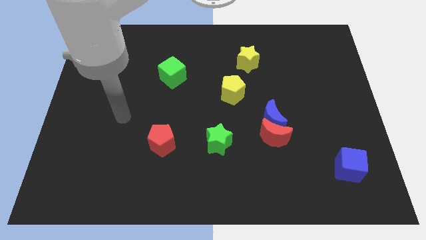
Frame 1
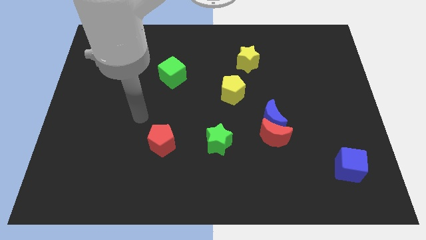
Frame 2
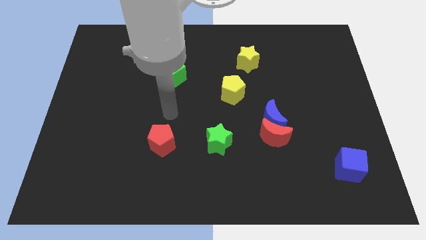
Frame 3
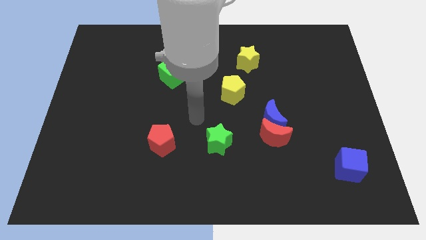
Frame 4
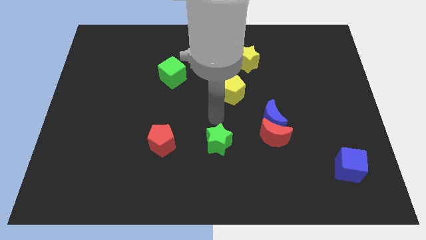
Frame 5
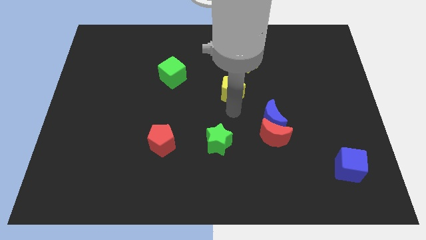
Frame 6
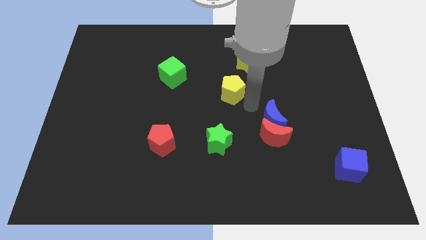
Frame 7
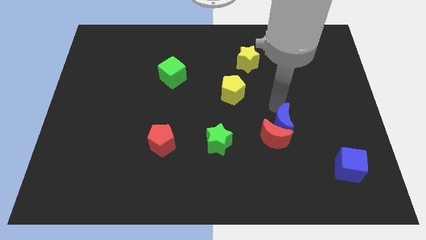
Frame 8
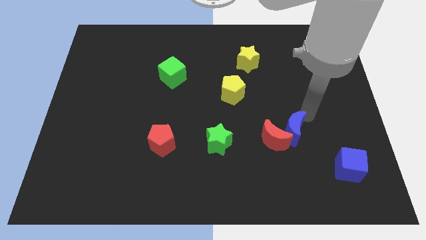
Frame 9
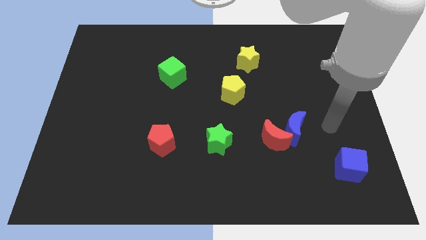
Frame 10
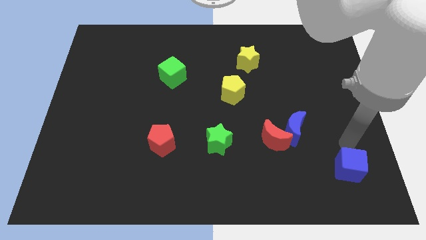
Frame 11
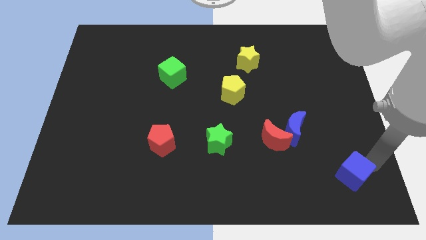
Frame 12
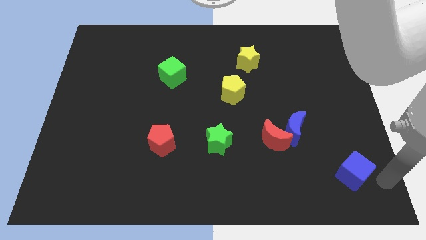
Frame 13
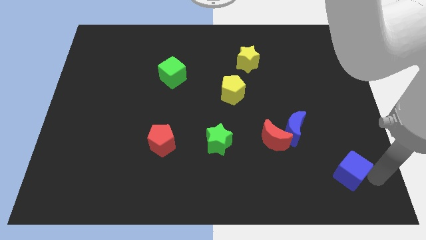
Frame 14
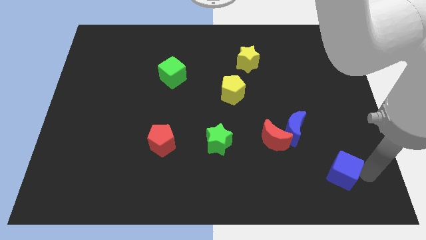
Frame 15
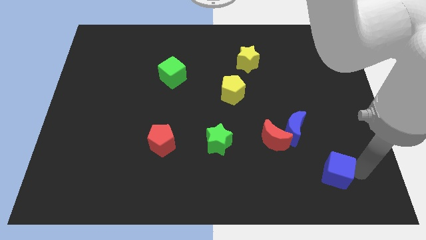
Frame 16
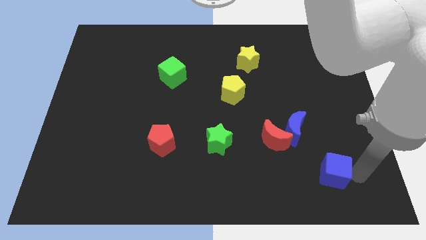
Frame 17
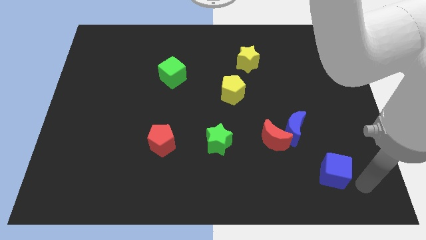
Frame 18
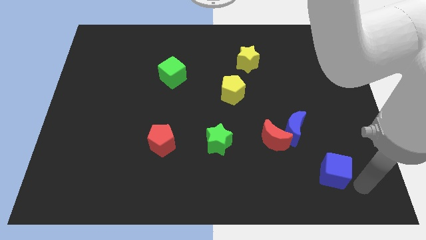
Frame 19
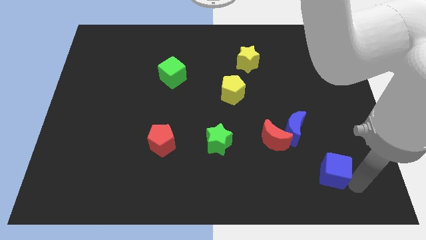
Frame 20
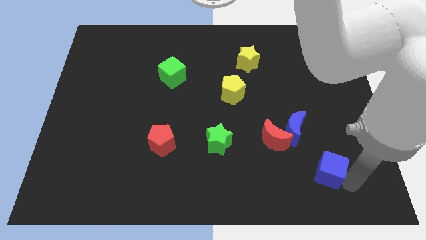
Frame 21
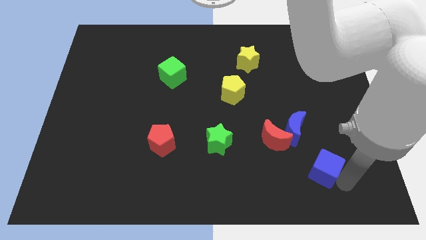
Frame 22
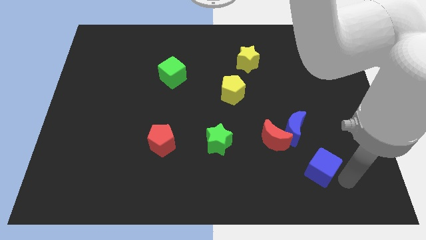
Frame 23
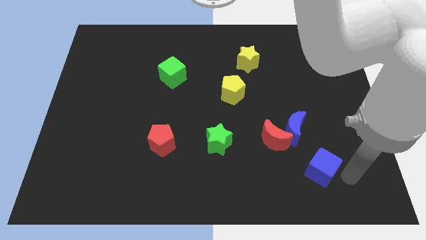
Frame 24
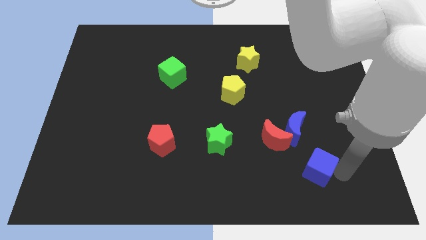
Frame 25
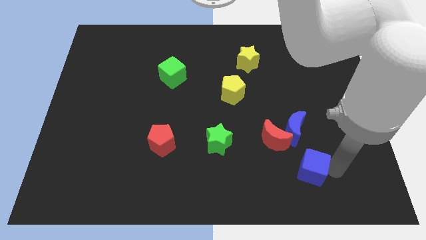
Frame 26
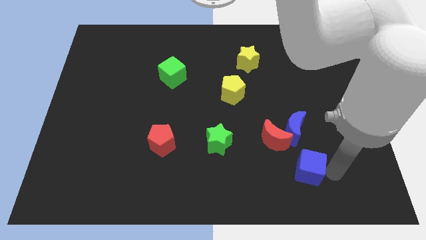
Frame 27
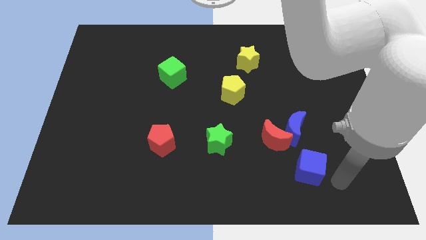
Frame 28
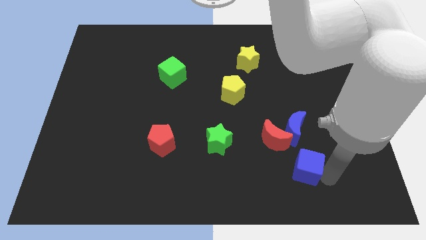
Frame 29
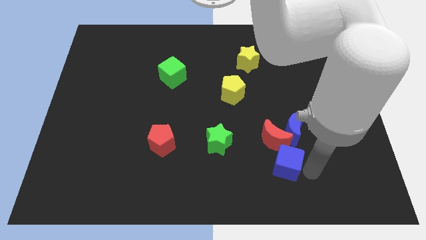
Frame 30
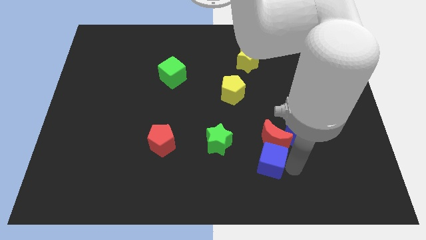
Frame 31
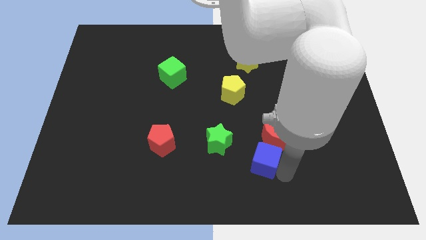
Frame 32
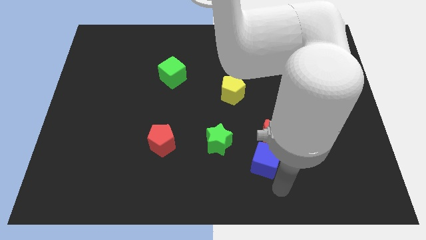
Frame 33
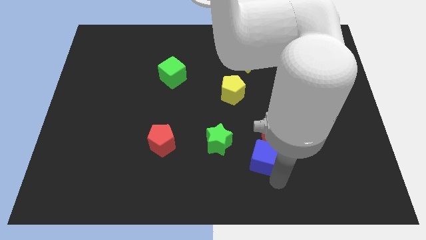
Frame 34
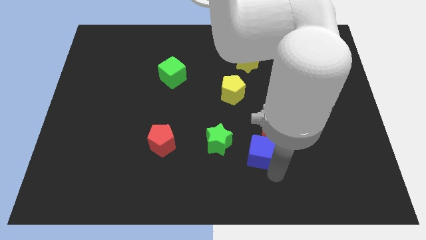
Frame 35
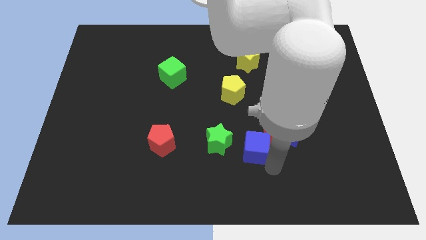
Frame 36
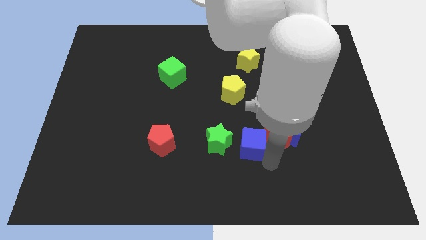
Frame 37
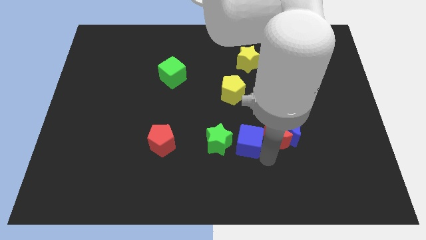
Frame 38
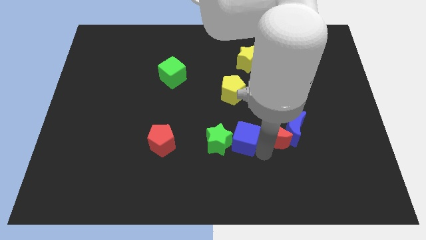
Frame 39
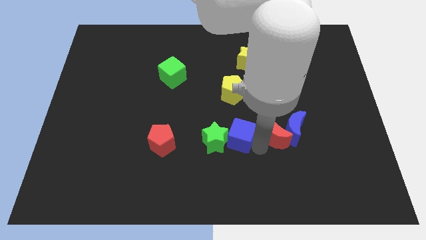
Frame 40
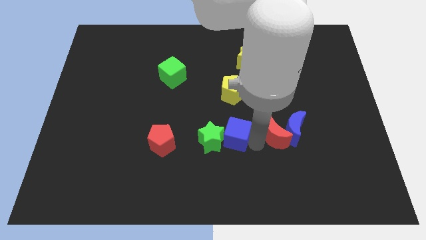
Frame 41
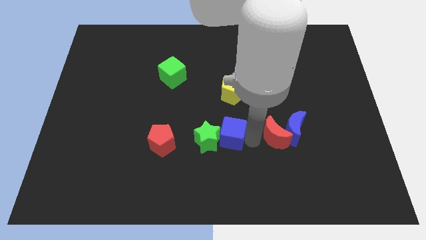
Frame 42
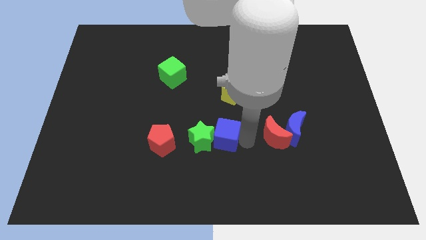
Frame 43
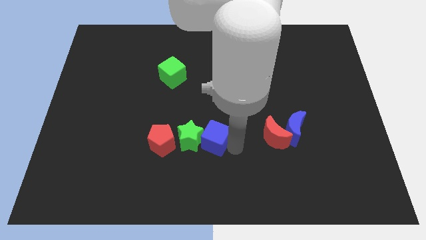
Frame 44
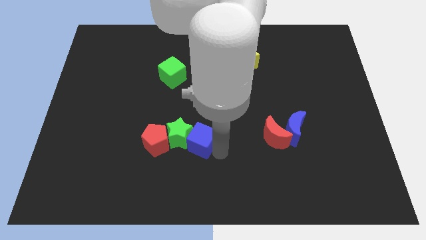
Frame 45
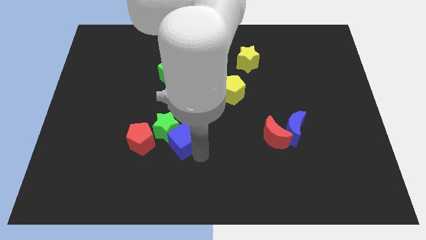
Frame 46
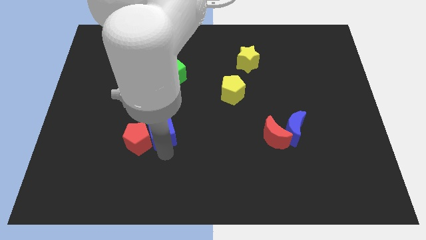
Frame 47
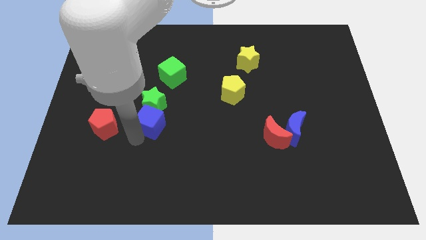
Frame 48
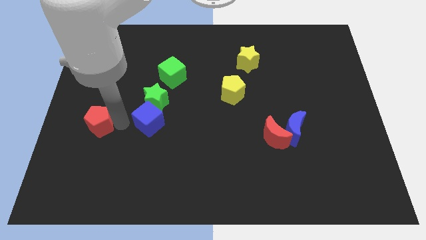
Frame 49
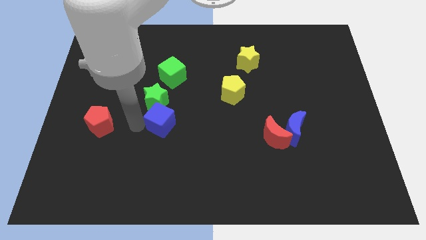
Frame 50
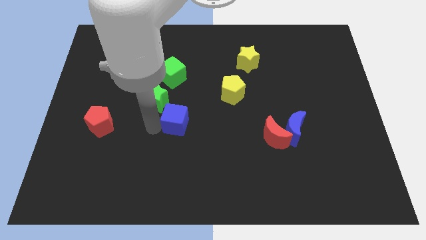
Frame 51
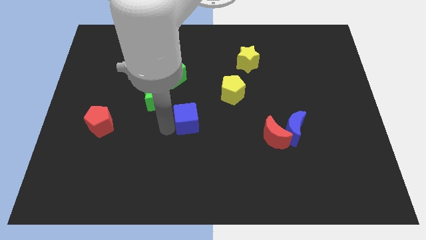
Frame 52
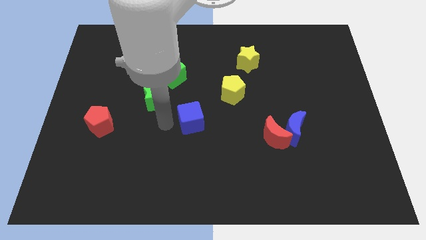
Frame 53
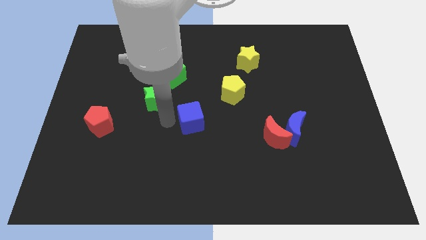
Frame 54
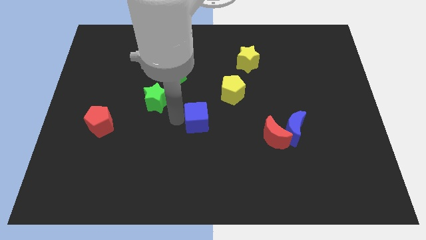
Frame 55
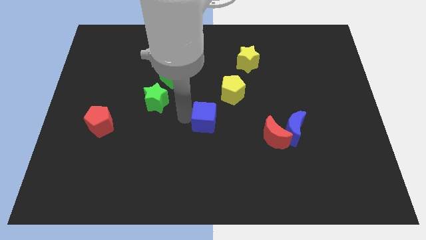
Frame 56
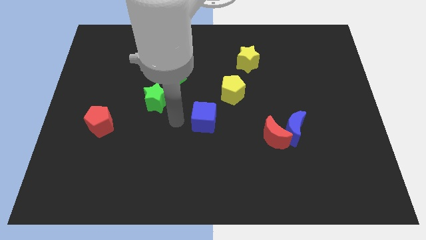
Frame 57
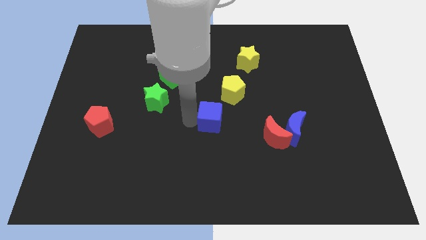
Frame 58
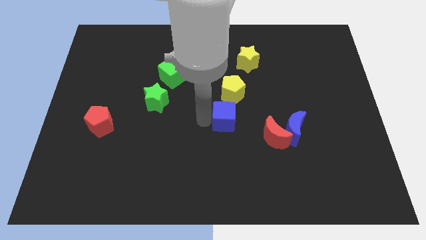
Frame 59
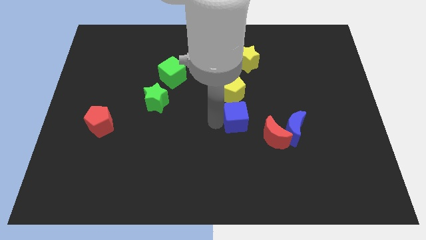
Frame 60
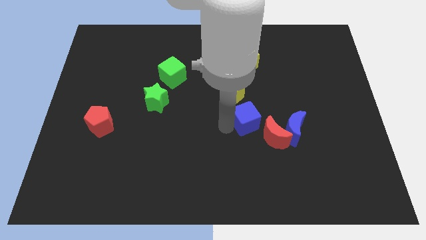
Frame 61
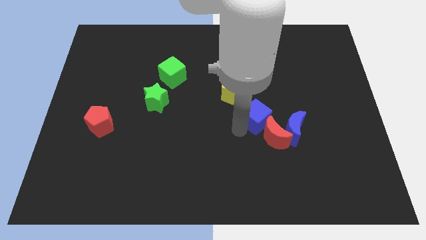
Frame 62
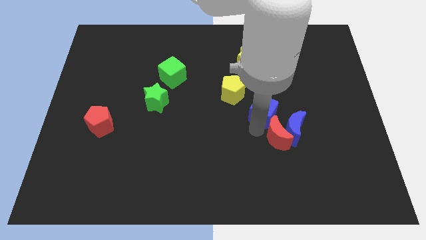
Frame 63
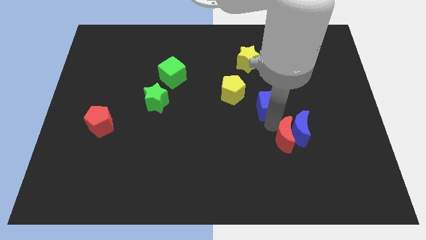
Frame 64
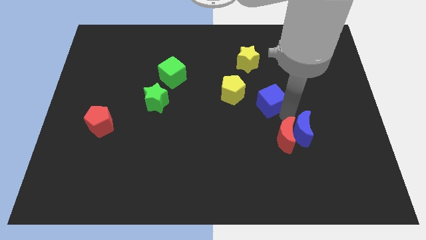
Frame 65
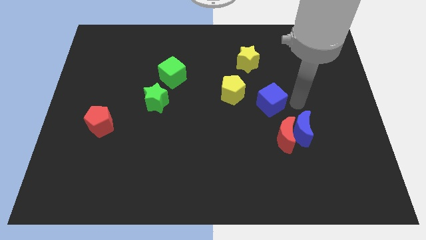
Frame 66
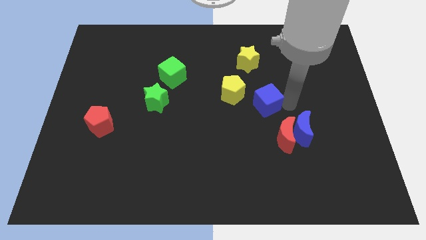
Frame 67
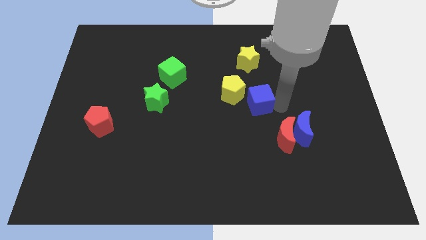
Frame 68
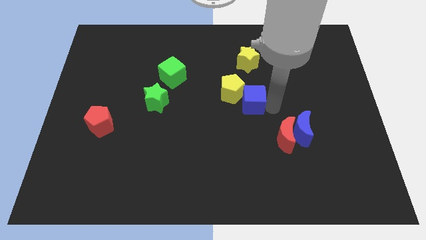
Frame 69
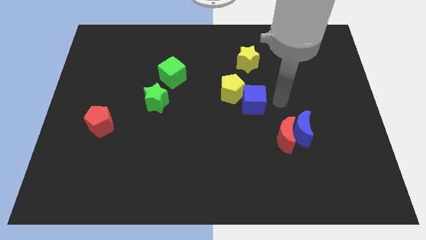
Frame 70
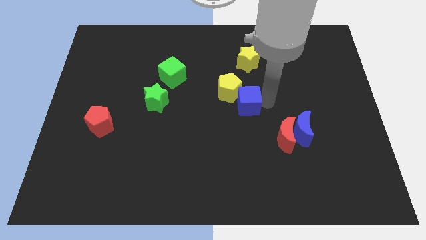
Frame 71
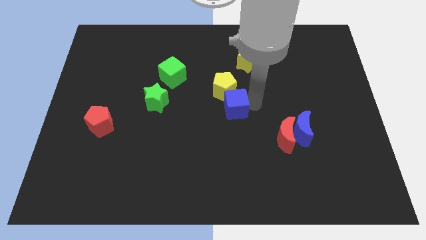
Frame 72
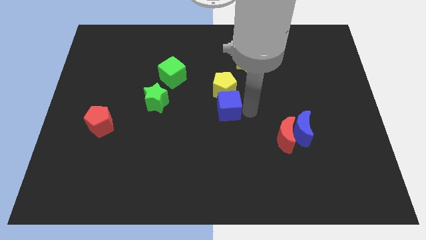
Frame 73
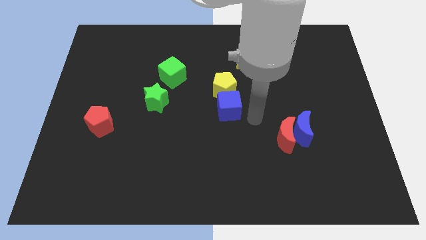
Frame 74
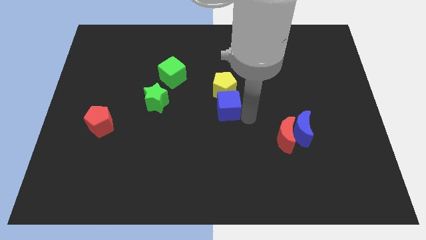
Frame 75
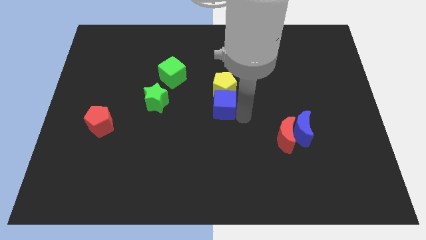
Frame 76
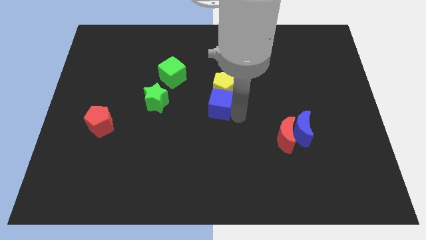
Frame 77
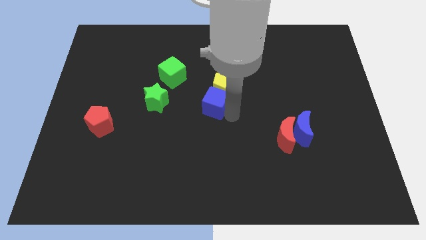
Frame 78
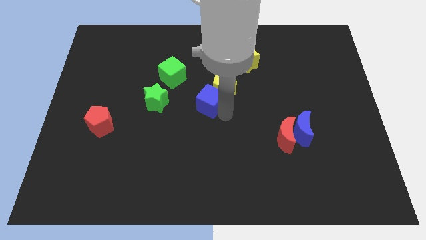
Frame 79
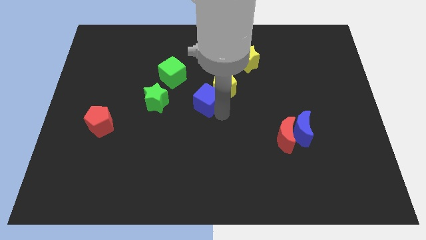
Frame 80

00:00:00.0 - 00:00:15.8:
slide the blue cube to the bottom right side of the green cube
